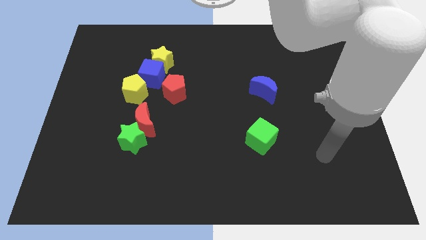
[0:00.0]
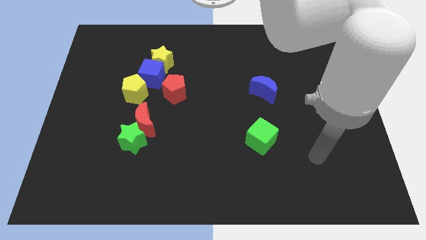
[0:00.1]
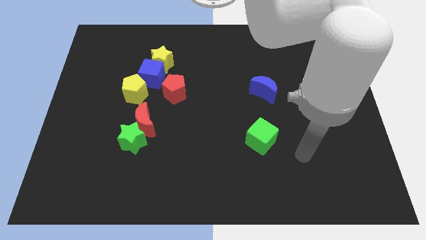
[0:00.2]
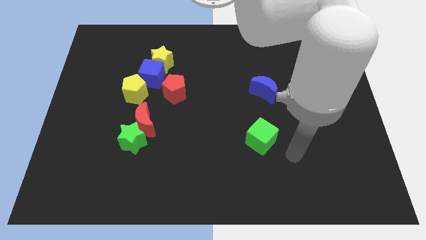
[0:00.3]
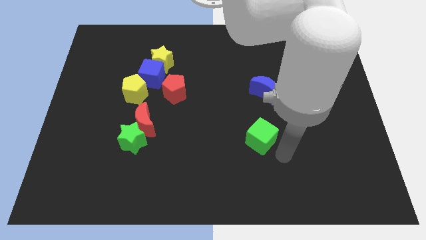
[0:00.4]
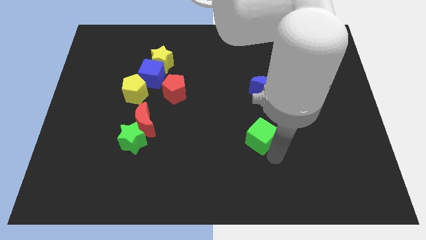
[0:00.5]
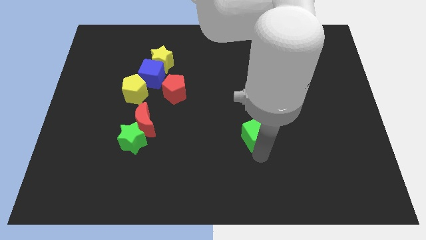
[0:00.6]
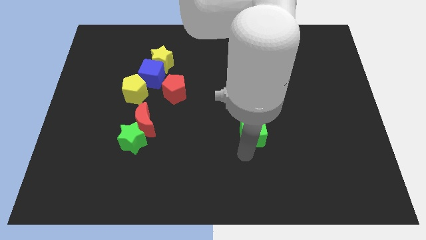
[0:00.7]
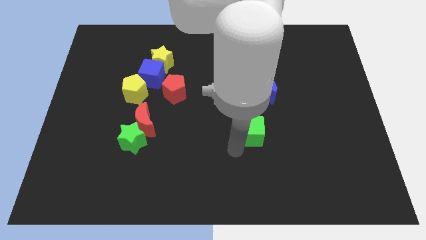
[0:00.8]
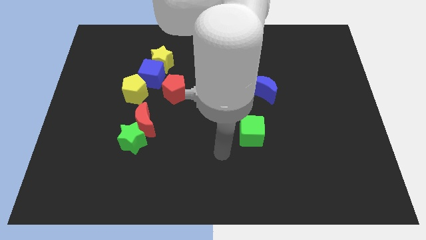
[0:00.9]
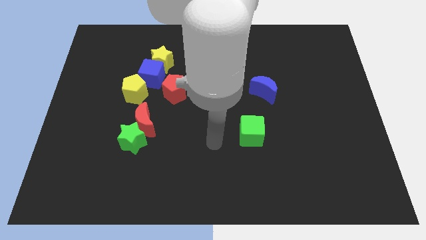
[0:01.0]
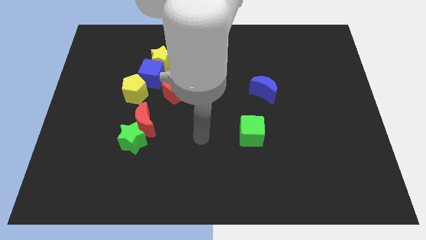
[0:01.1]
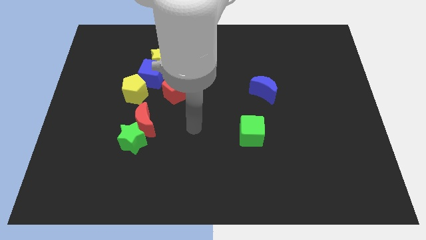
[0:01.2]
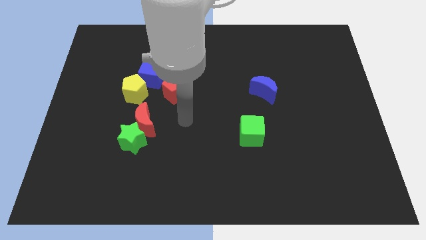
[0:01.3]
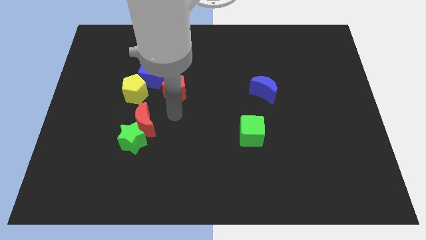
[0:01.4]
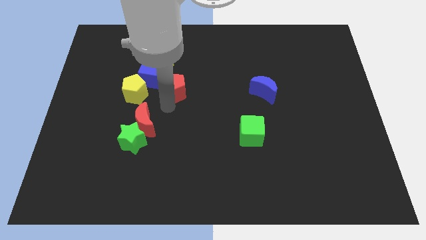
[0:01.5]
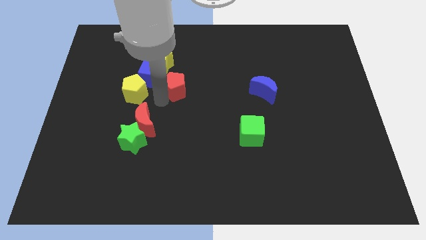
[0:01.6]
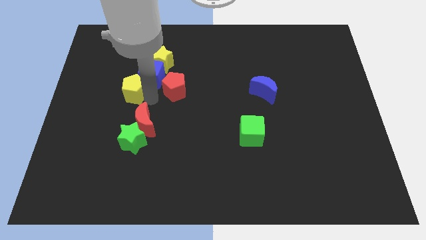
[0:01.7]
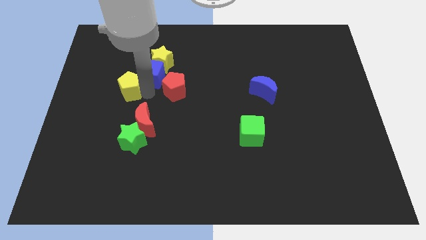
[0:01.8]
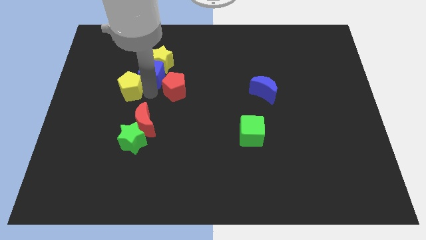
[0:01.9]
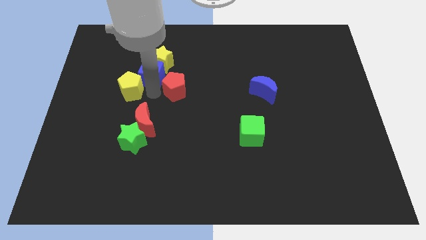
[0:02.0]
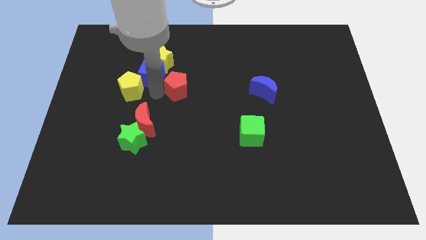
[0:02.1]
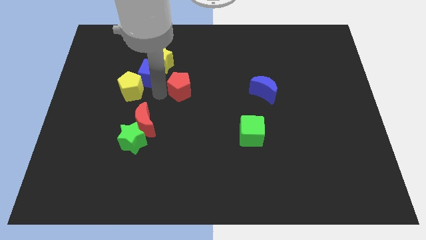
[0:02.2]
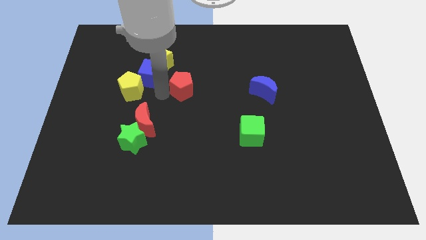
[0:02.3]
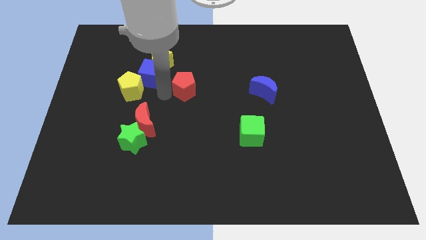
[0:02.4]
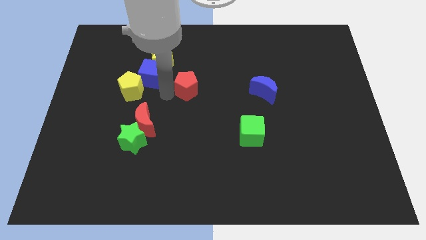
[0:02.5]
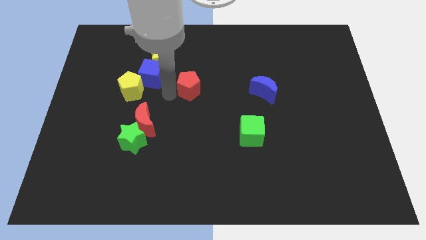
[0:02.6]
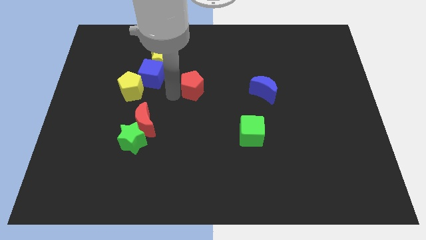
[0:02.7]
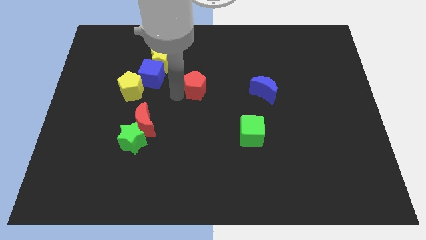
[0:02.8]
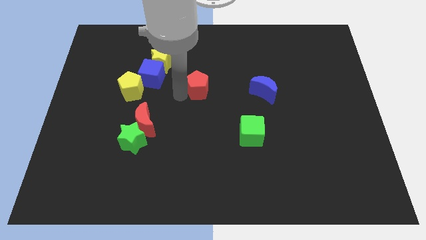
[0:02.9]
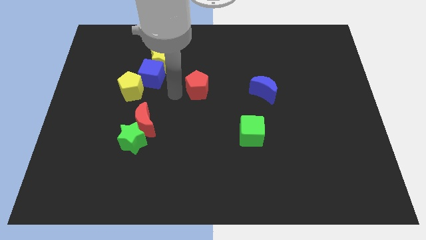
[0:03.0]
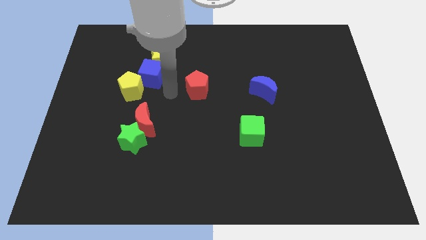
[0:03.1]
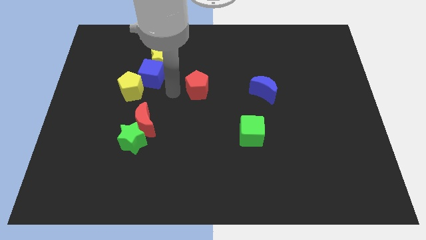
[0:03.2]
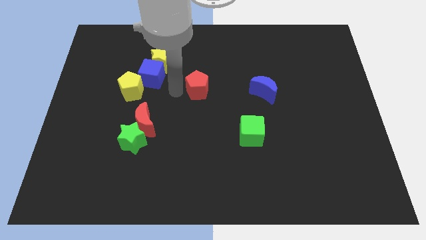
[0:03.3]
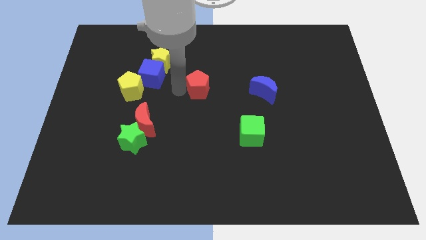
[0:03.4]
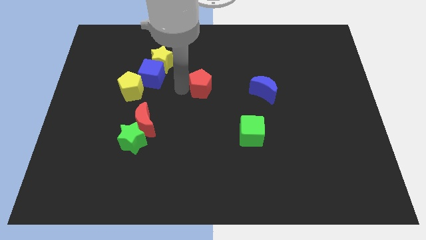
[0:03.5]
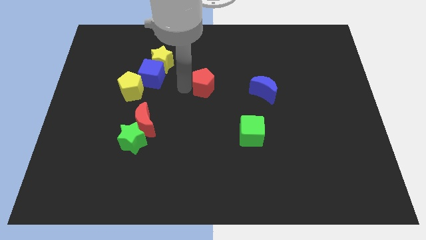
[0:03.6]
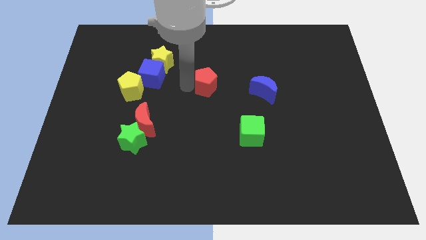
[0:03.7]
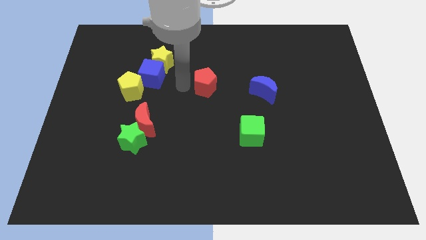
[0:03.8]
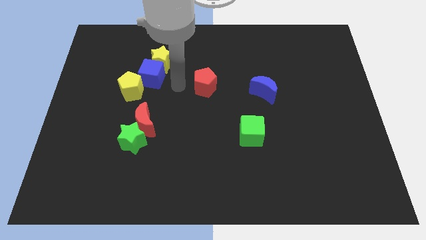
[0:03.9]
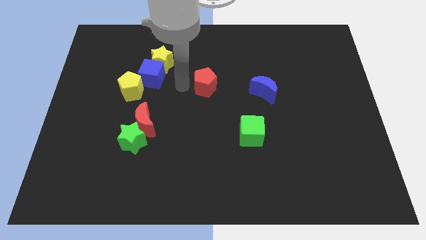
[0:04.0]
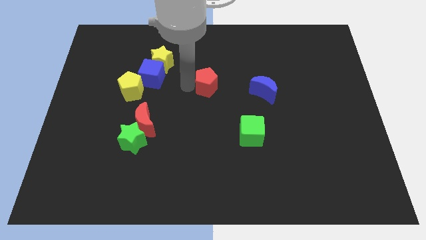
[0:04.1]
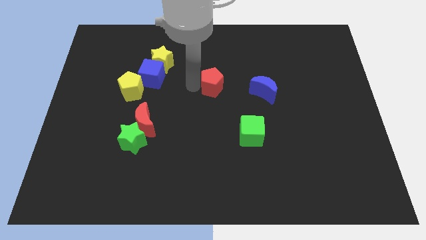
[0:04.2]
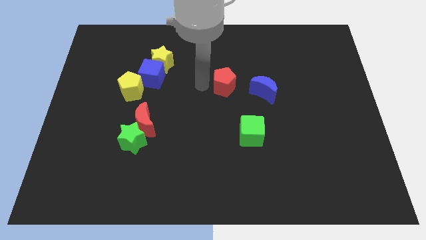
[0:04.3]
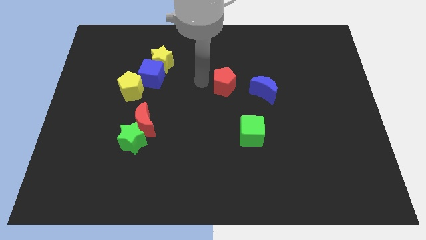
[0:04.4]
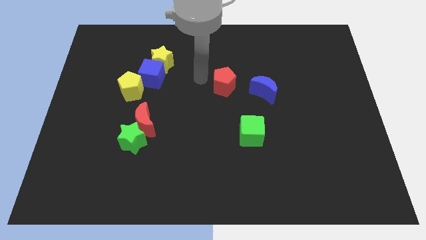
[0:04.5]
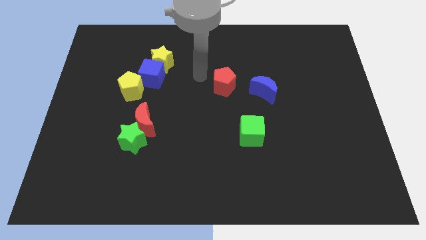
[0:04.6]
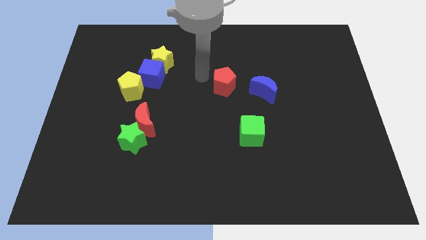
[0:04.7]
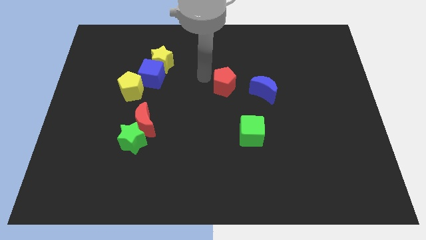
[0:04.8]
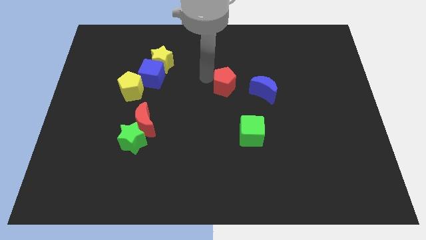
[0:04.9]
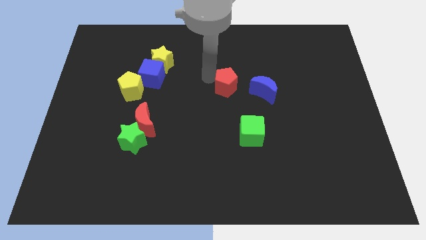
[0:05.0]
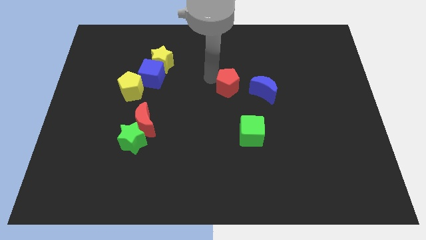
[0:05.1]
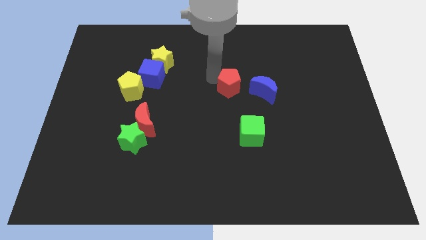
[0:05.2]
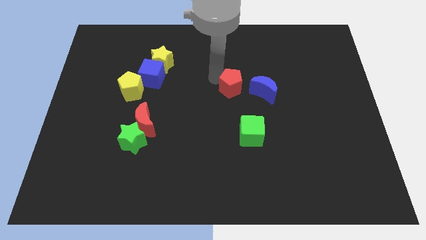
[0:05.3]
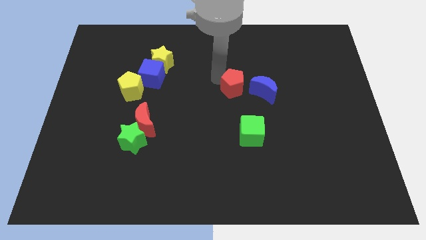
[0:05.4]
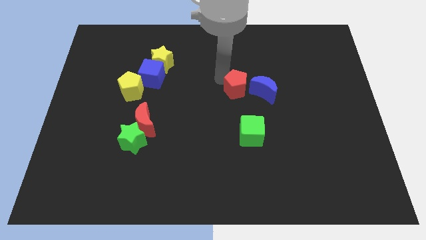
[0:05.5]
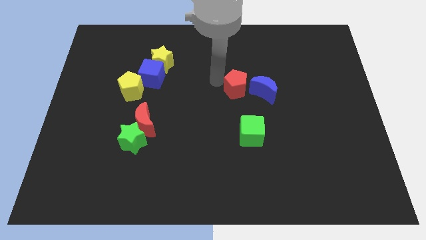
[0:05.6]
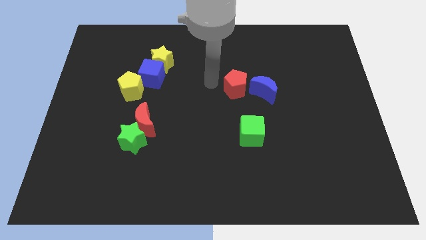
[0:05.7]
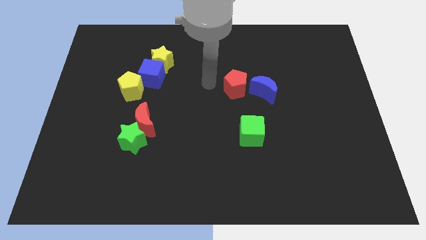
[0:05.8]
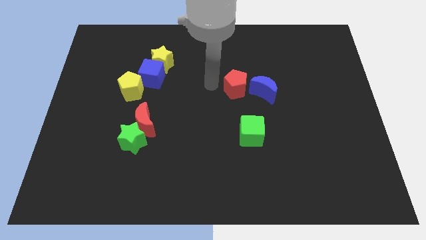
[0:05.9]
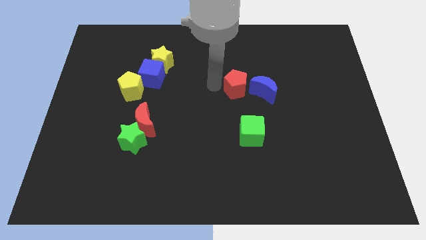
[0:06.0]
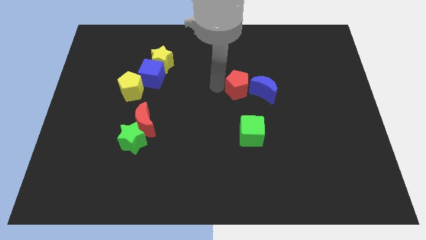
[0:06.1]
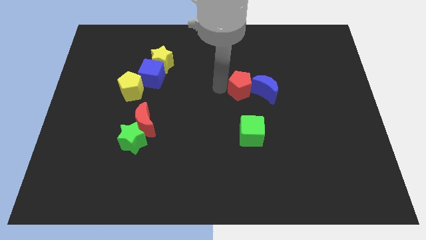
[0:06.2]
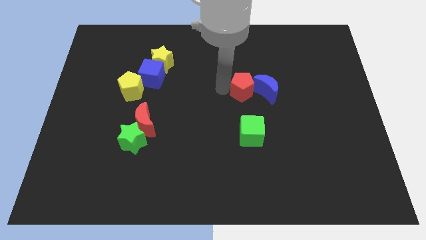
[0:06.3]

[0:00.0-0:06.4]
slide the red pentagon towards the blue moon
